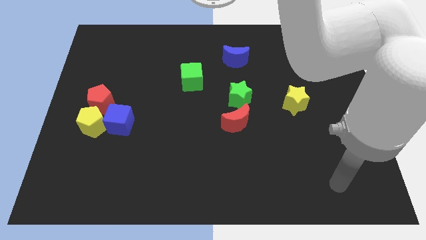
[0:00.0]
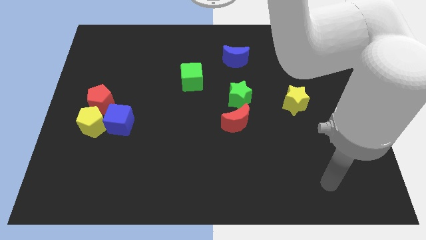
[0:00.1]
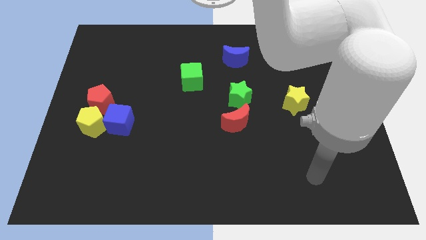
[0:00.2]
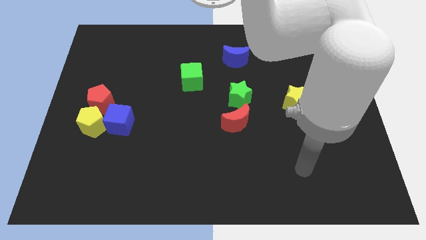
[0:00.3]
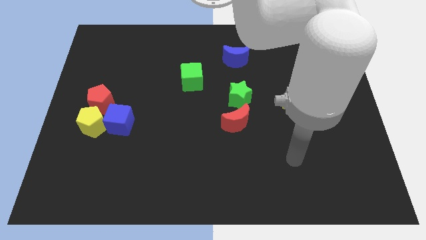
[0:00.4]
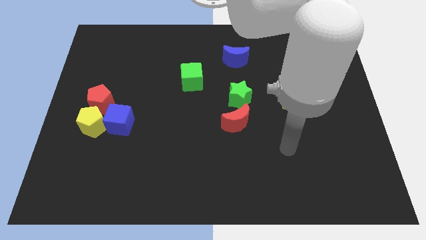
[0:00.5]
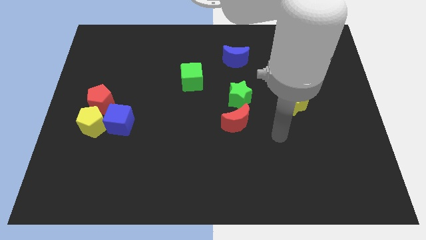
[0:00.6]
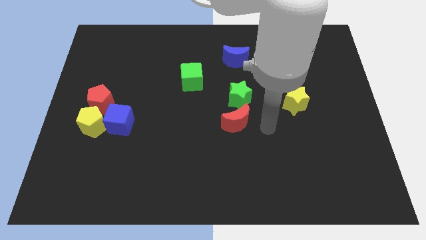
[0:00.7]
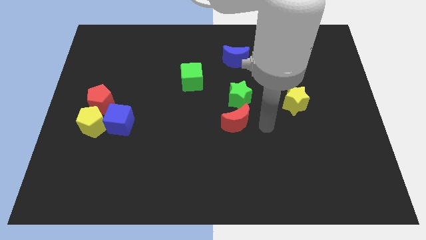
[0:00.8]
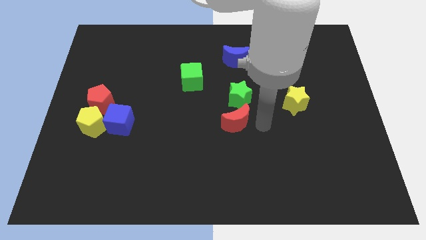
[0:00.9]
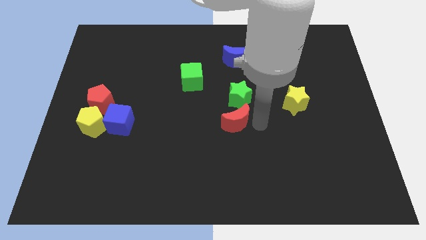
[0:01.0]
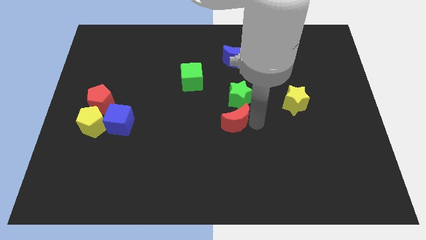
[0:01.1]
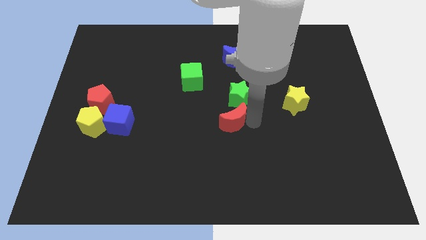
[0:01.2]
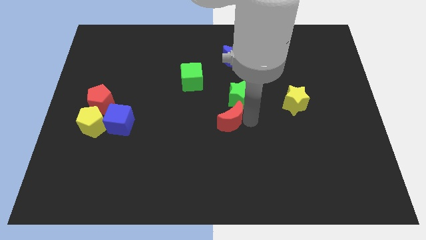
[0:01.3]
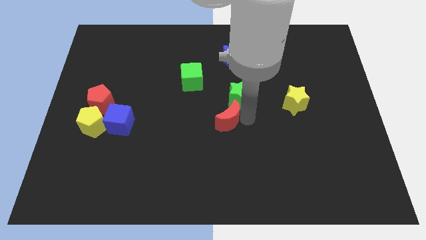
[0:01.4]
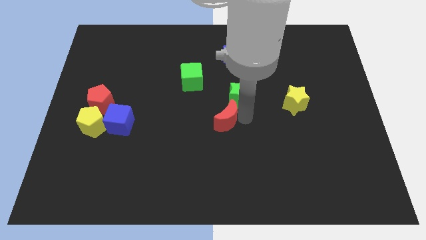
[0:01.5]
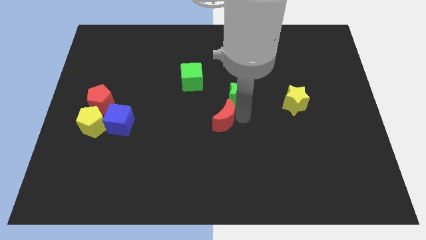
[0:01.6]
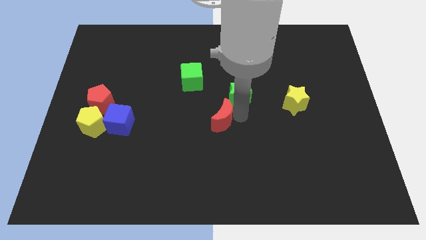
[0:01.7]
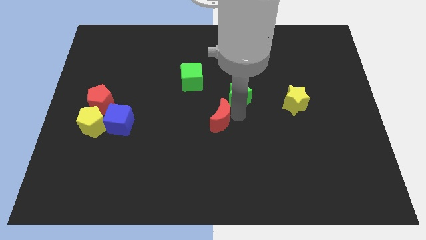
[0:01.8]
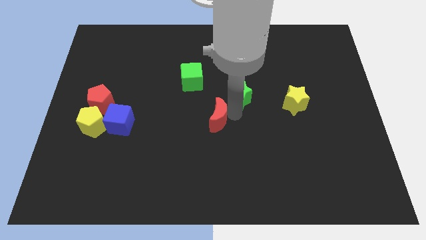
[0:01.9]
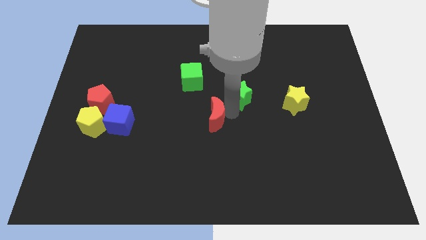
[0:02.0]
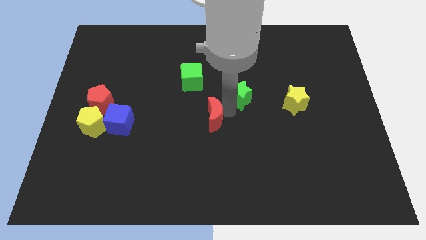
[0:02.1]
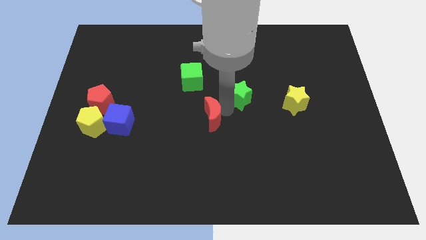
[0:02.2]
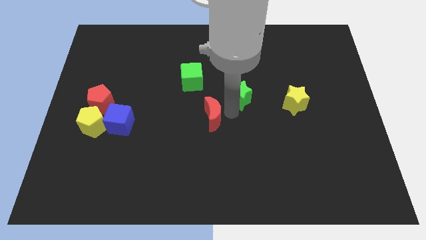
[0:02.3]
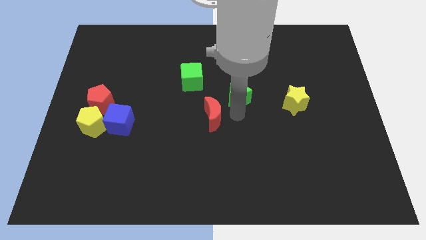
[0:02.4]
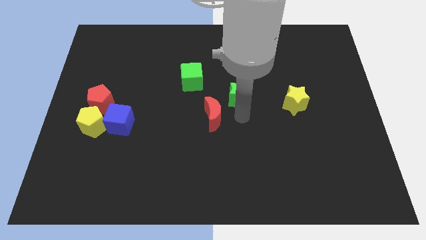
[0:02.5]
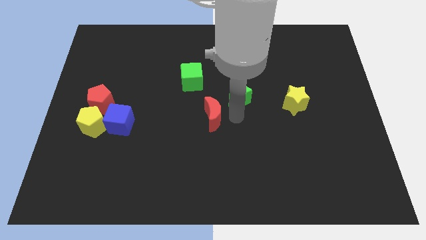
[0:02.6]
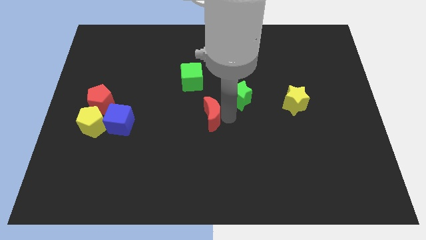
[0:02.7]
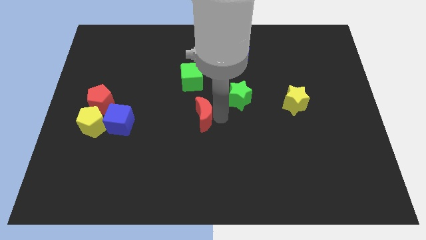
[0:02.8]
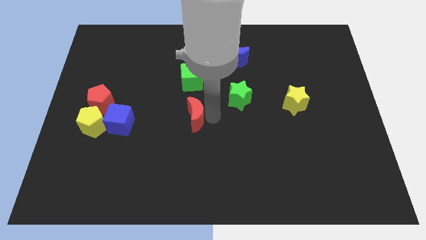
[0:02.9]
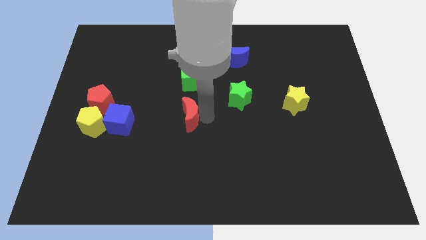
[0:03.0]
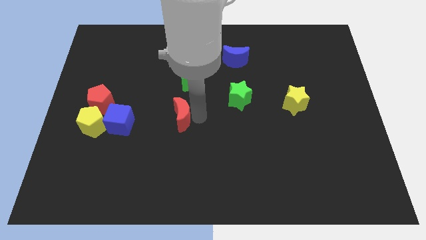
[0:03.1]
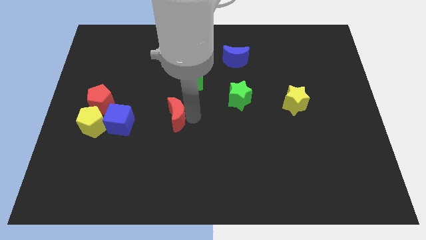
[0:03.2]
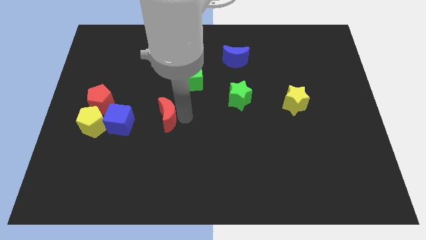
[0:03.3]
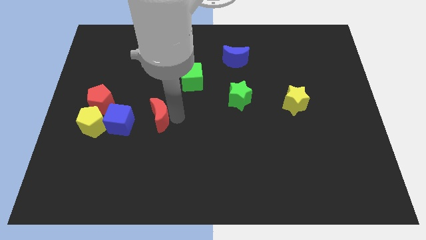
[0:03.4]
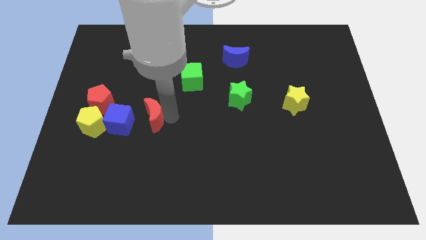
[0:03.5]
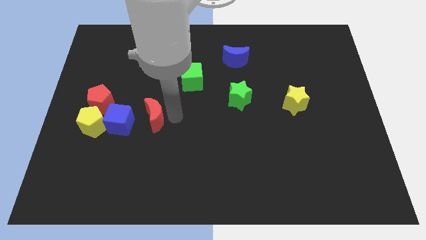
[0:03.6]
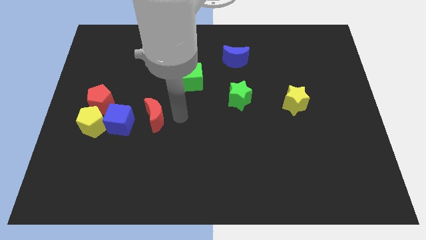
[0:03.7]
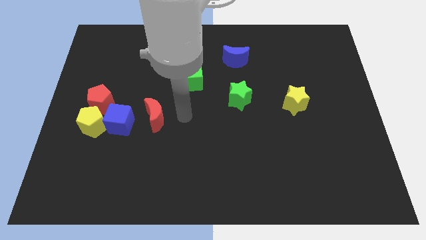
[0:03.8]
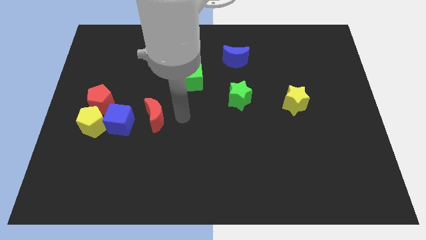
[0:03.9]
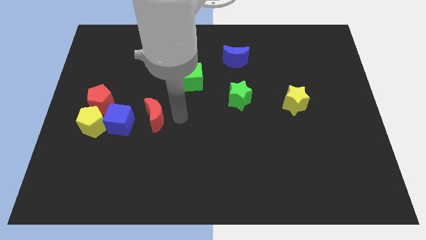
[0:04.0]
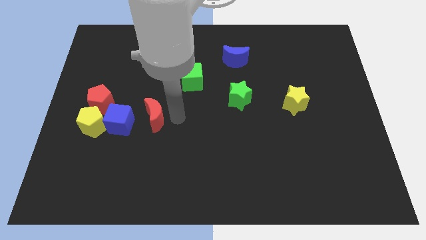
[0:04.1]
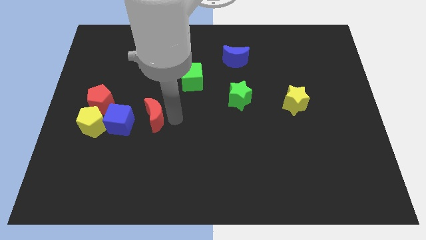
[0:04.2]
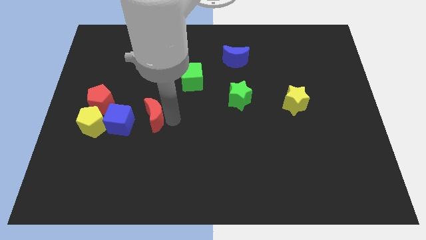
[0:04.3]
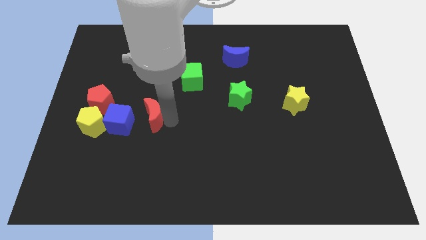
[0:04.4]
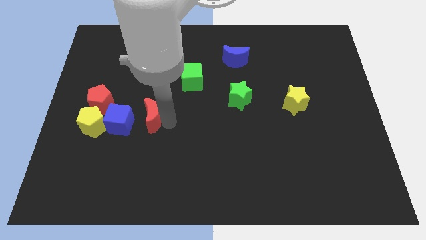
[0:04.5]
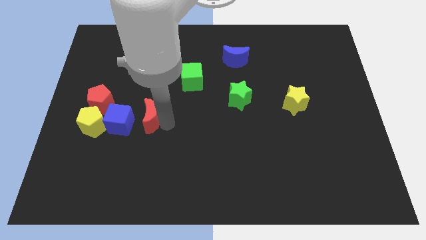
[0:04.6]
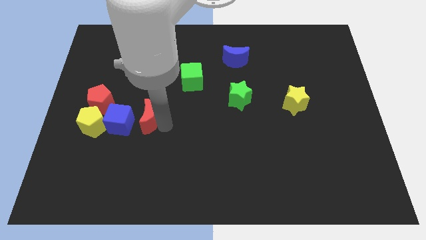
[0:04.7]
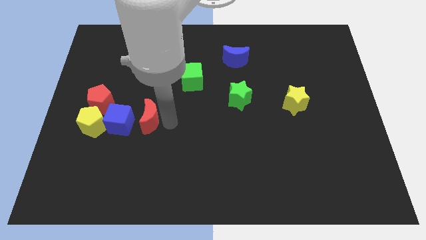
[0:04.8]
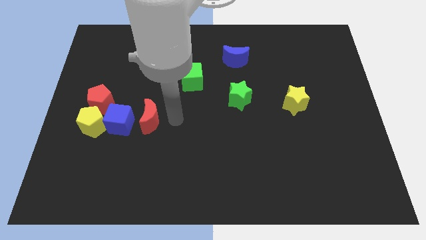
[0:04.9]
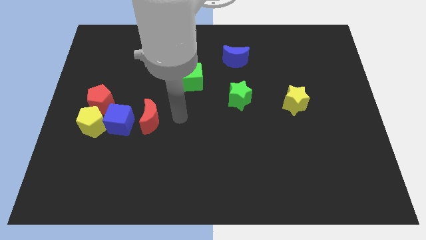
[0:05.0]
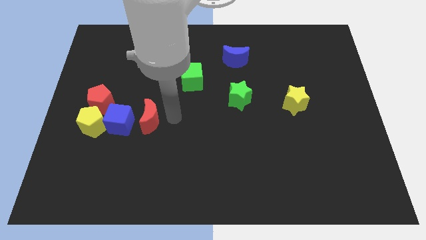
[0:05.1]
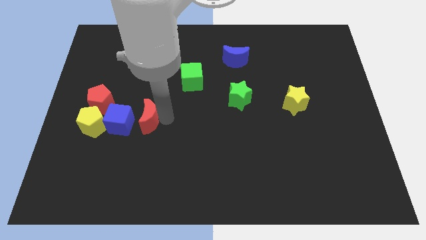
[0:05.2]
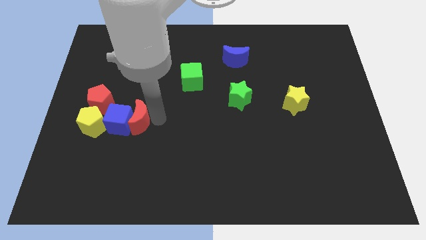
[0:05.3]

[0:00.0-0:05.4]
put the red moon close to the blue cube

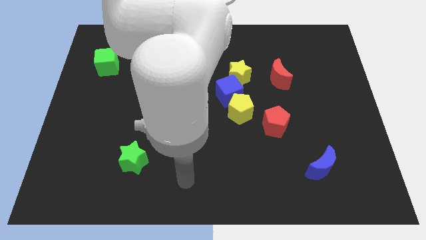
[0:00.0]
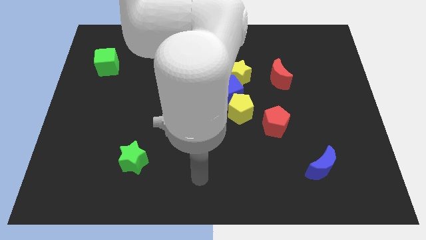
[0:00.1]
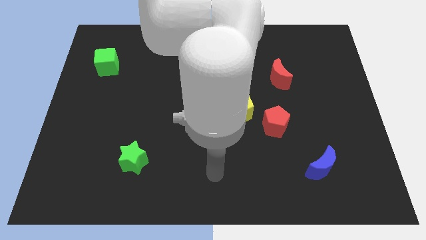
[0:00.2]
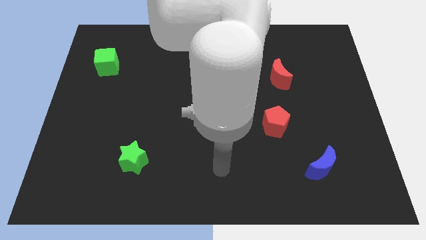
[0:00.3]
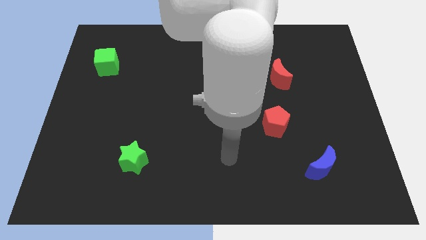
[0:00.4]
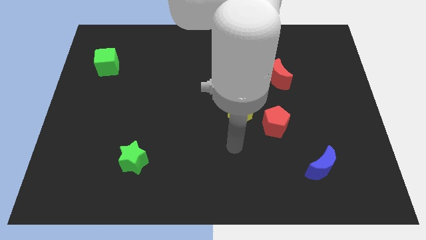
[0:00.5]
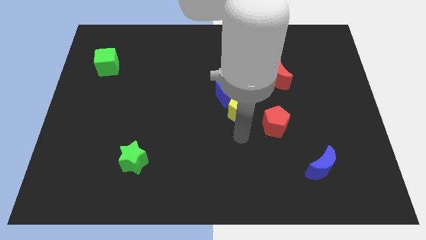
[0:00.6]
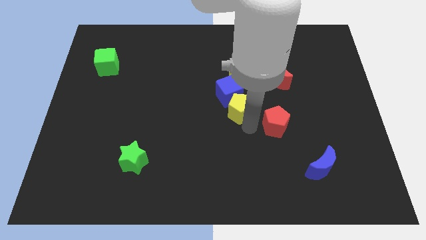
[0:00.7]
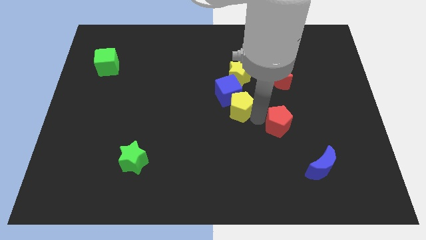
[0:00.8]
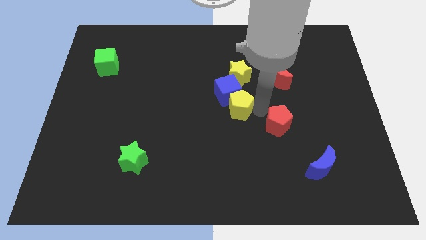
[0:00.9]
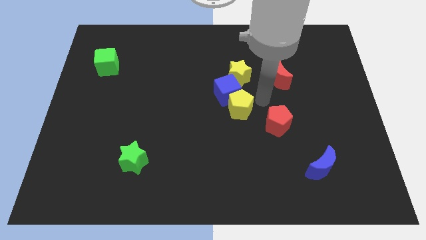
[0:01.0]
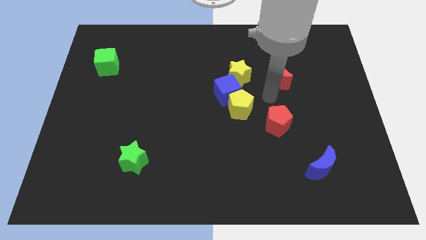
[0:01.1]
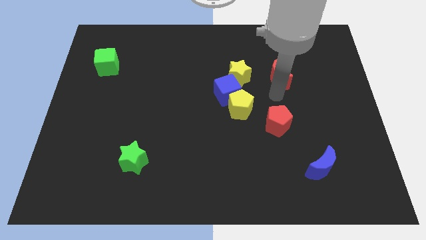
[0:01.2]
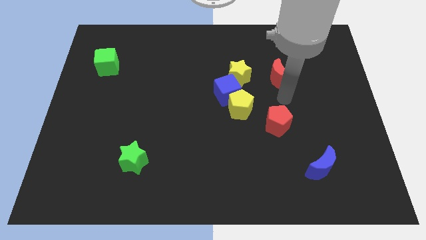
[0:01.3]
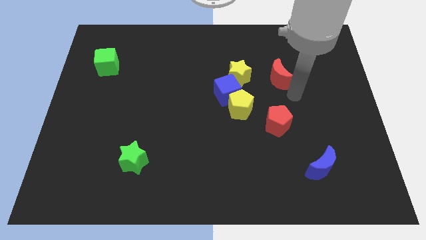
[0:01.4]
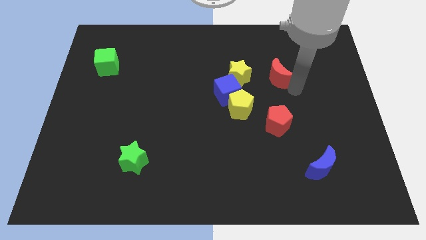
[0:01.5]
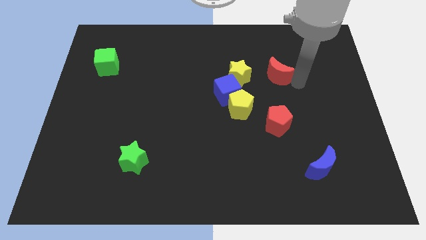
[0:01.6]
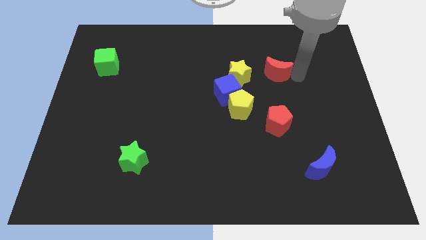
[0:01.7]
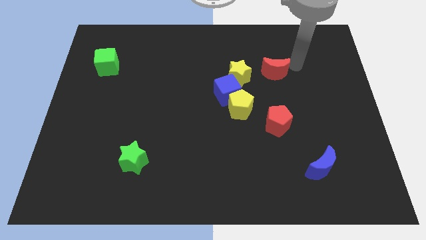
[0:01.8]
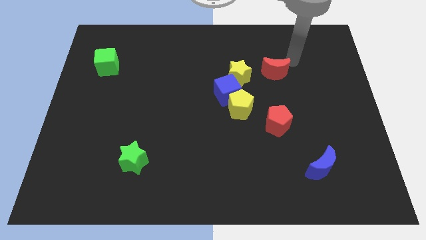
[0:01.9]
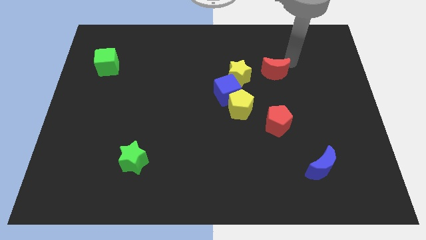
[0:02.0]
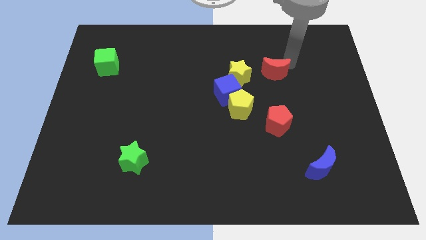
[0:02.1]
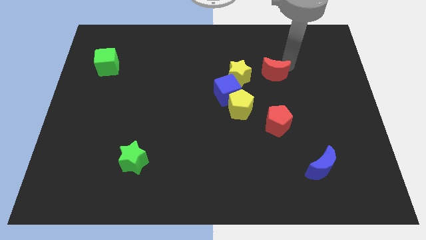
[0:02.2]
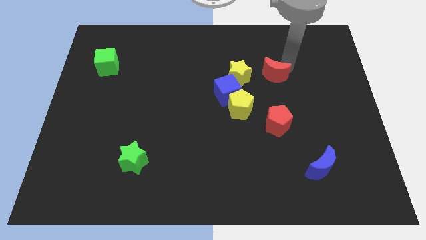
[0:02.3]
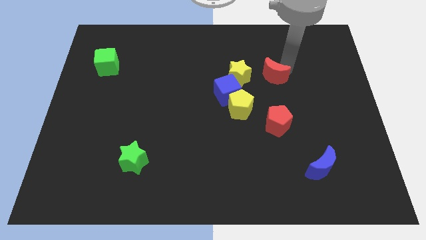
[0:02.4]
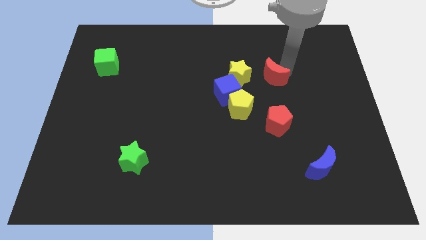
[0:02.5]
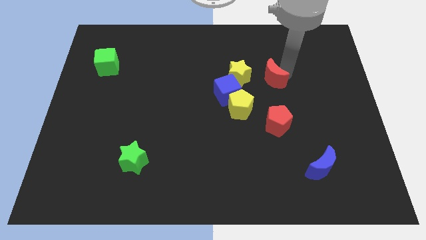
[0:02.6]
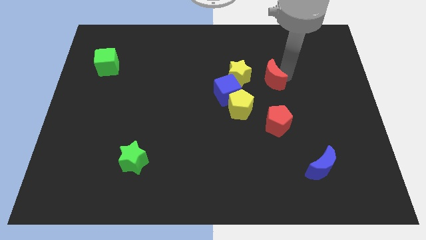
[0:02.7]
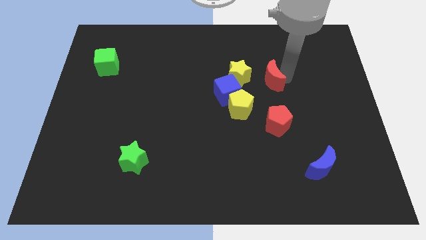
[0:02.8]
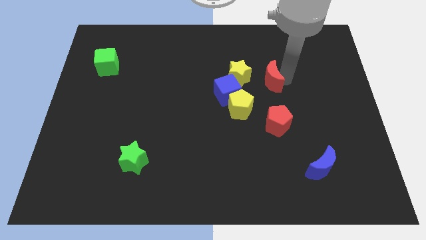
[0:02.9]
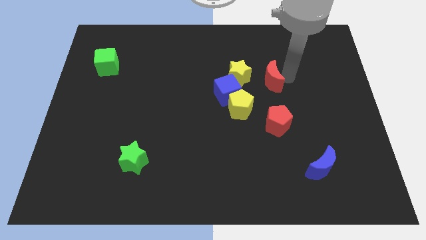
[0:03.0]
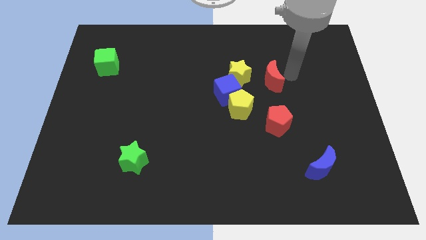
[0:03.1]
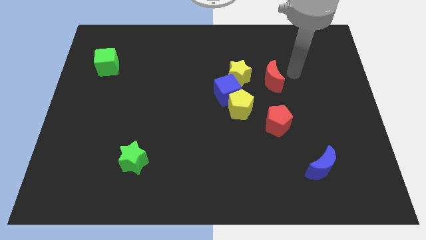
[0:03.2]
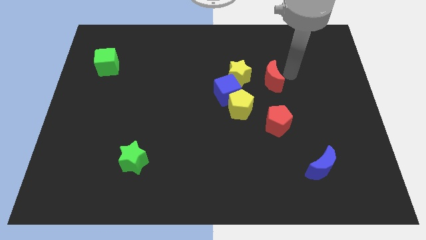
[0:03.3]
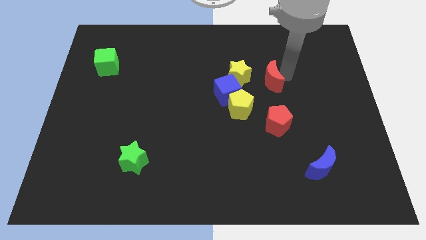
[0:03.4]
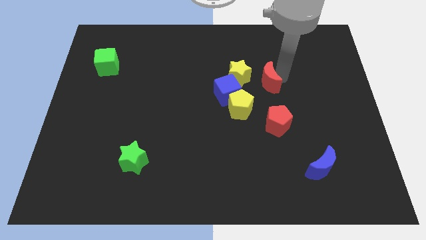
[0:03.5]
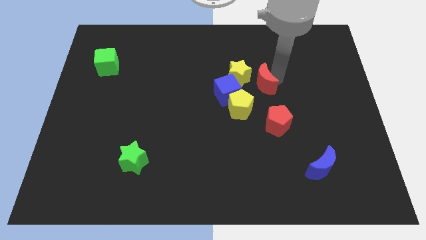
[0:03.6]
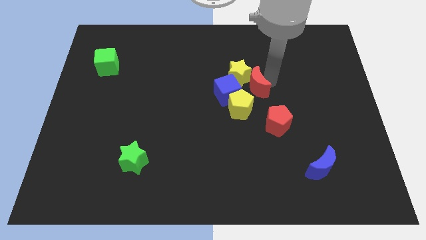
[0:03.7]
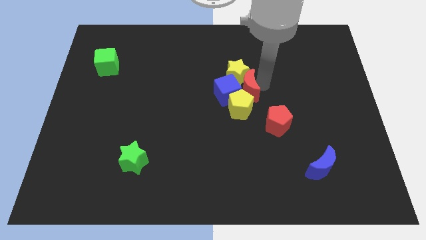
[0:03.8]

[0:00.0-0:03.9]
push the red moon next to the blue cube
